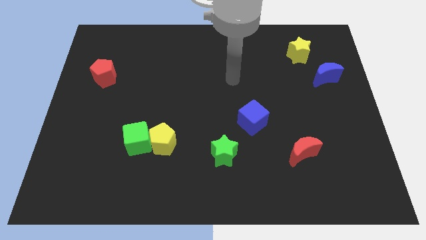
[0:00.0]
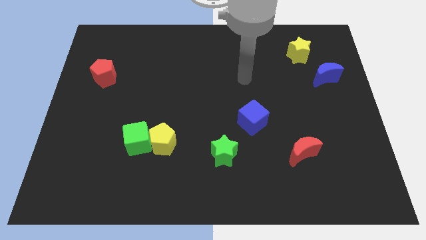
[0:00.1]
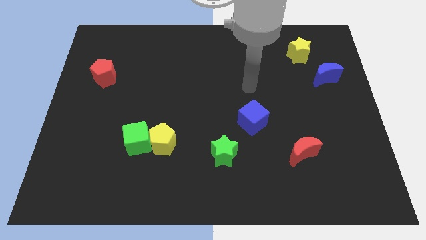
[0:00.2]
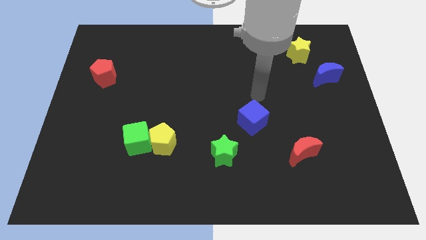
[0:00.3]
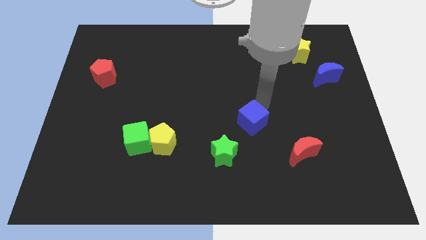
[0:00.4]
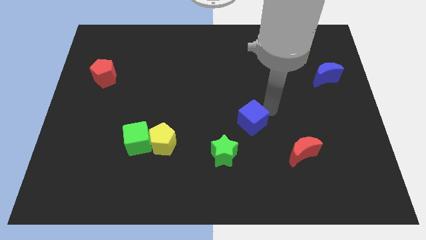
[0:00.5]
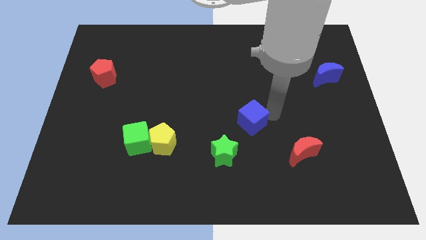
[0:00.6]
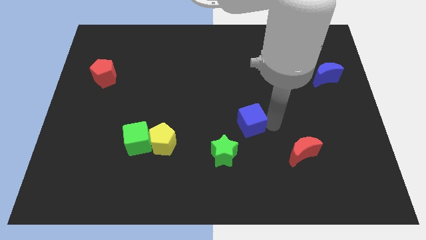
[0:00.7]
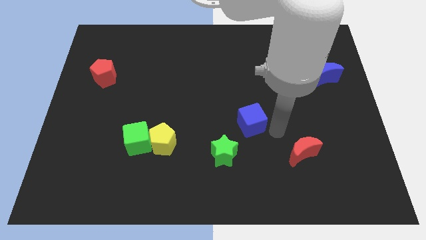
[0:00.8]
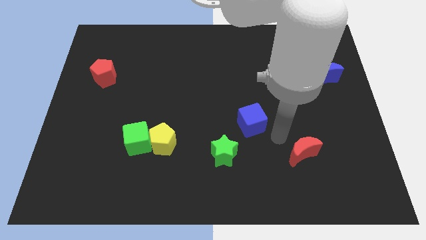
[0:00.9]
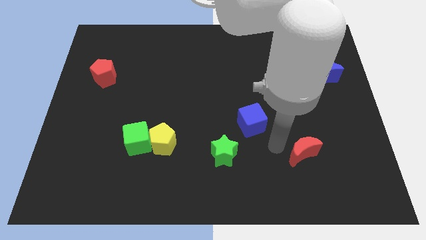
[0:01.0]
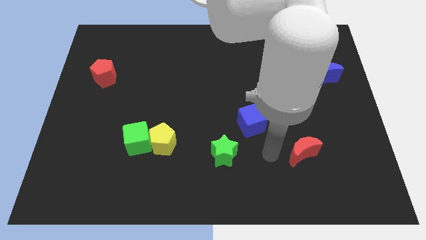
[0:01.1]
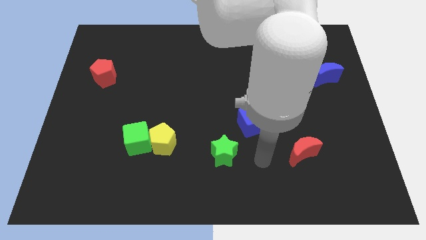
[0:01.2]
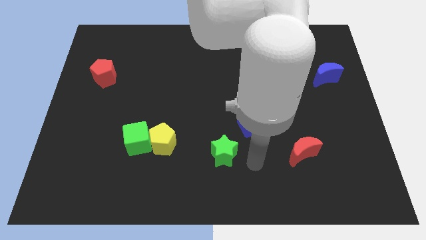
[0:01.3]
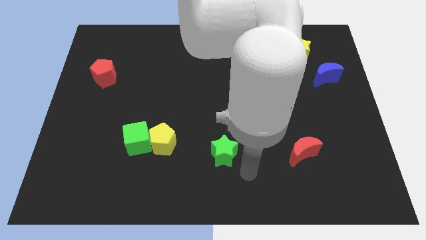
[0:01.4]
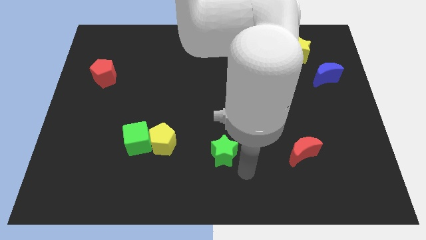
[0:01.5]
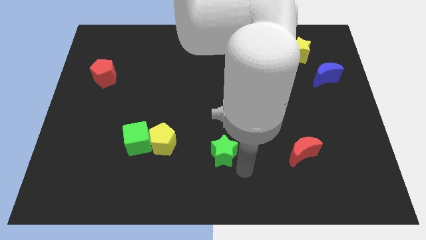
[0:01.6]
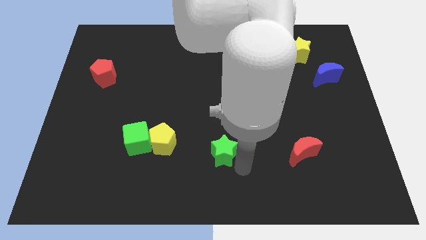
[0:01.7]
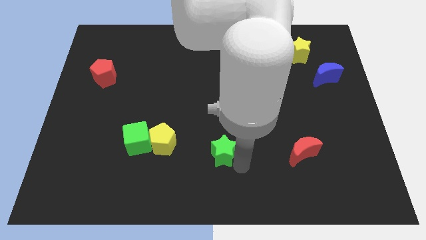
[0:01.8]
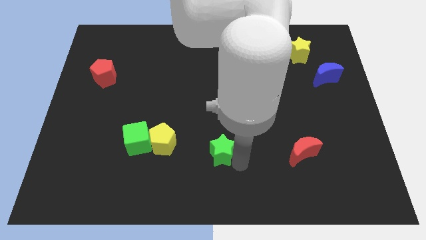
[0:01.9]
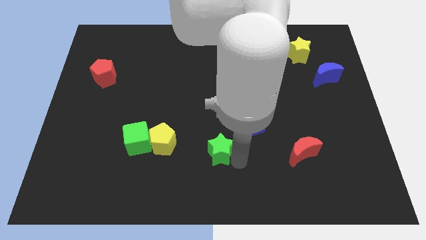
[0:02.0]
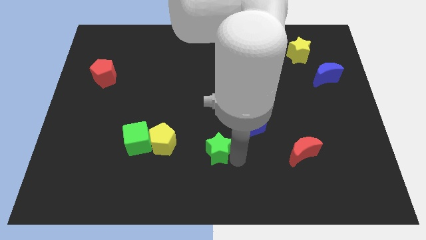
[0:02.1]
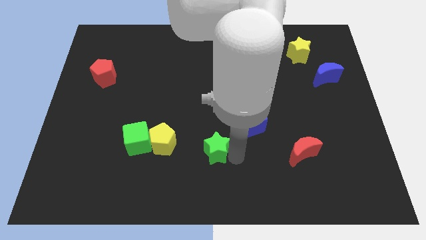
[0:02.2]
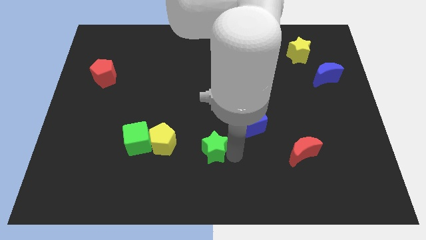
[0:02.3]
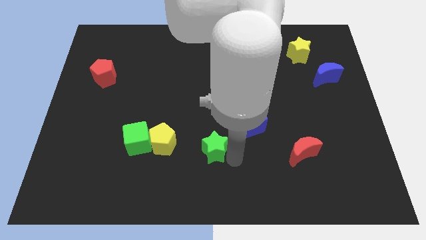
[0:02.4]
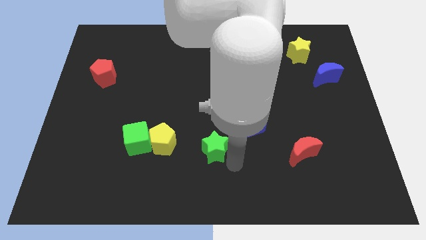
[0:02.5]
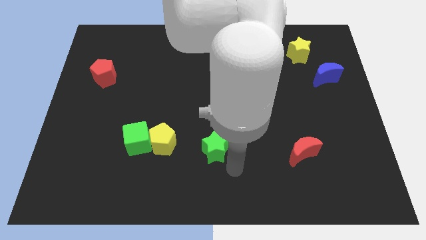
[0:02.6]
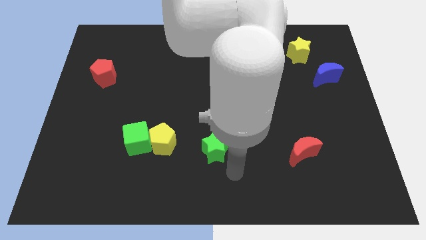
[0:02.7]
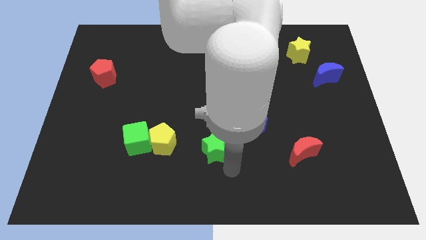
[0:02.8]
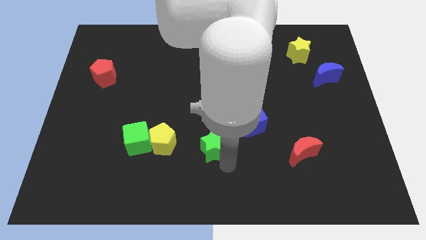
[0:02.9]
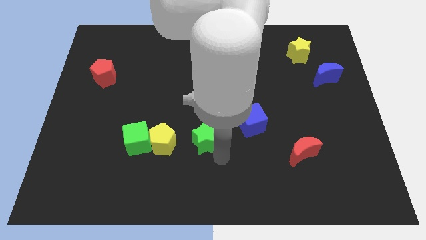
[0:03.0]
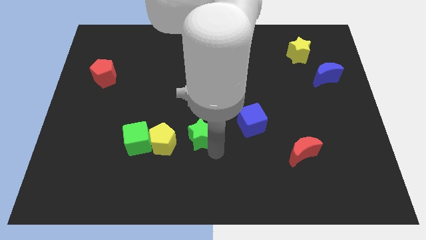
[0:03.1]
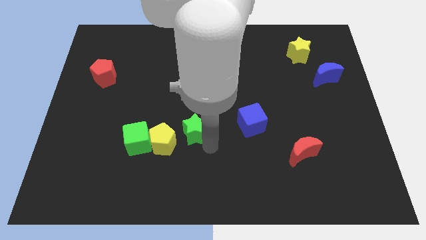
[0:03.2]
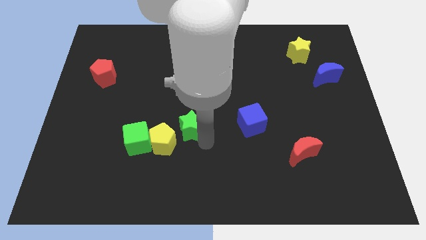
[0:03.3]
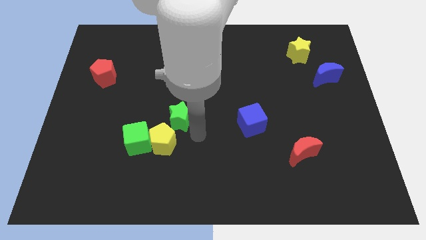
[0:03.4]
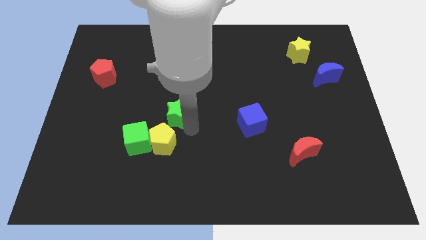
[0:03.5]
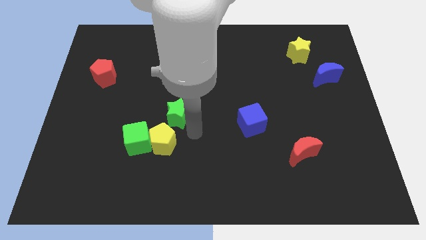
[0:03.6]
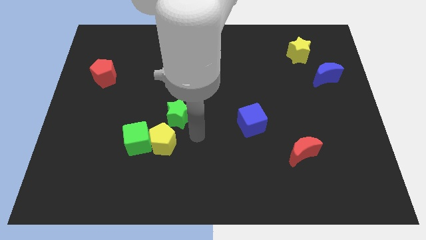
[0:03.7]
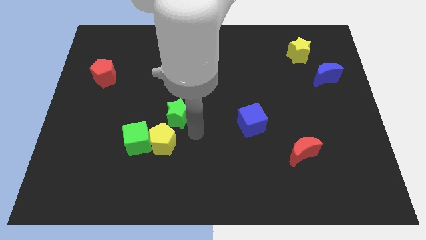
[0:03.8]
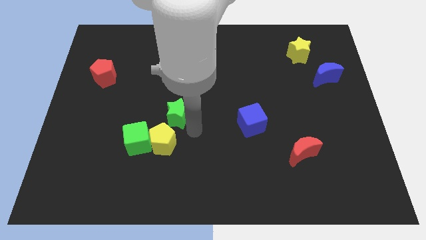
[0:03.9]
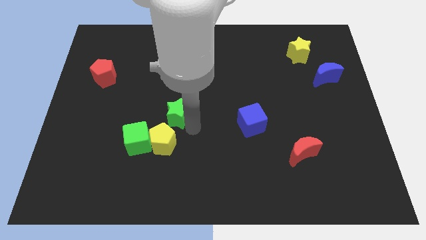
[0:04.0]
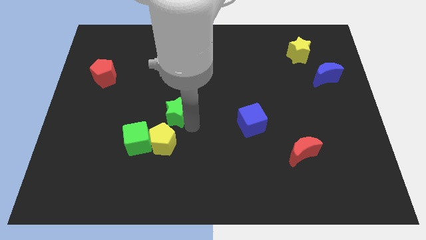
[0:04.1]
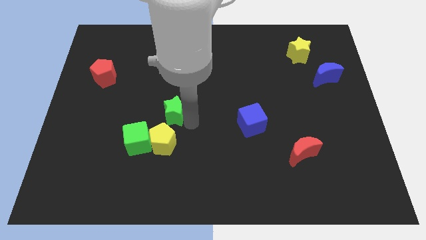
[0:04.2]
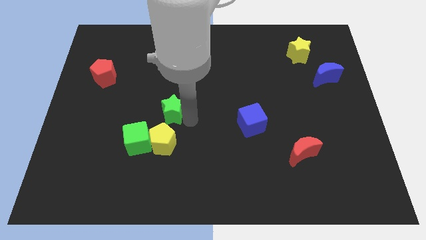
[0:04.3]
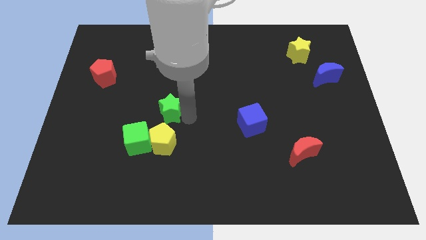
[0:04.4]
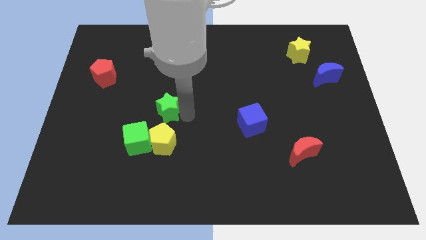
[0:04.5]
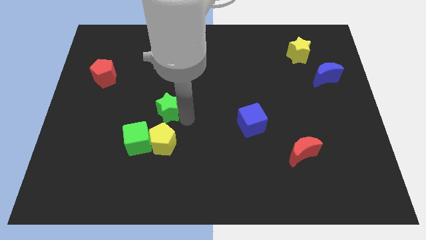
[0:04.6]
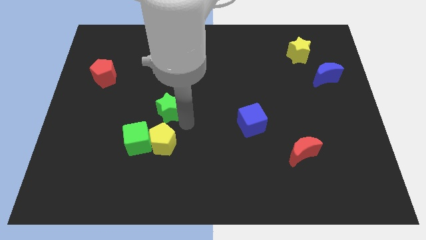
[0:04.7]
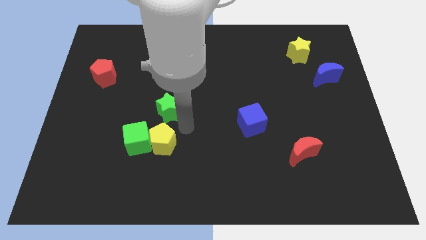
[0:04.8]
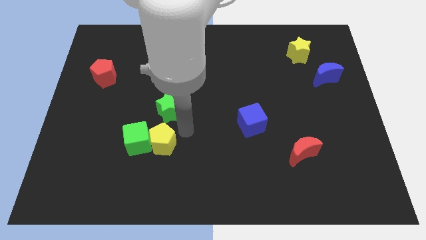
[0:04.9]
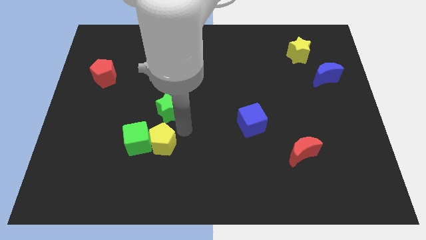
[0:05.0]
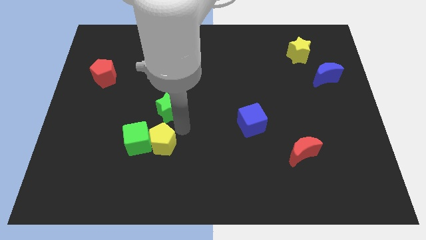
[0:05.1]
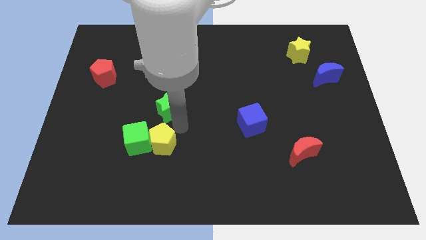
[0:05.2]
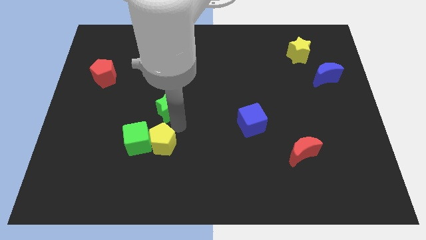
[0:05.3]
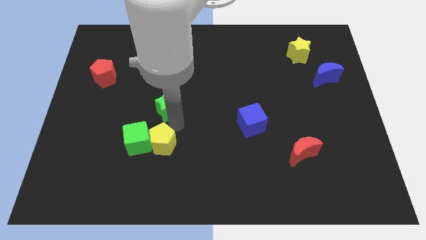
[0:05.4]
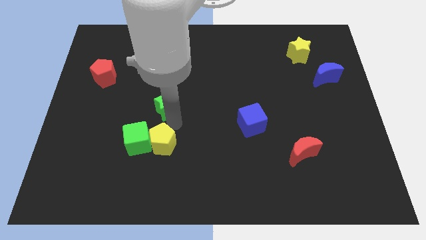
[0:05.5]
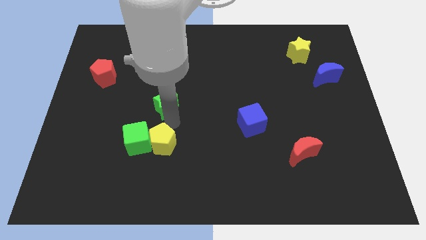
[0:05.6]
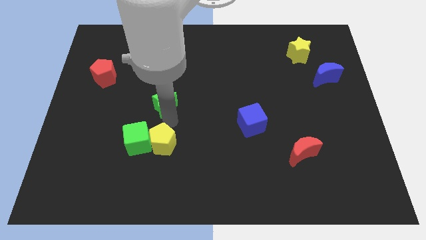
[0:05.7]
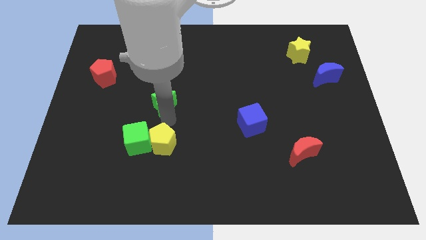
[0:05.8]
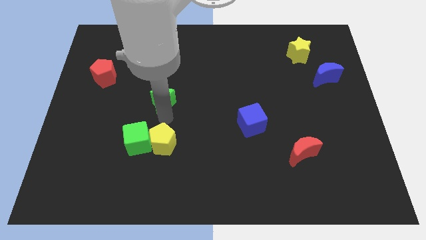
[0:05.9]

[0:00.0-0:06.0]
push the green star diagonally up and left

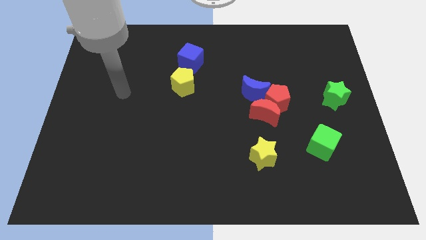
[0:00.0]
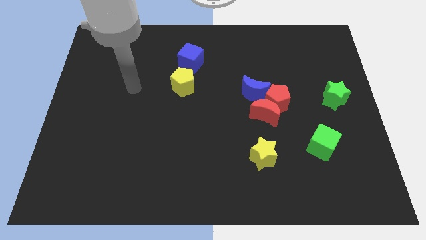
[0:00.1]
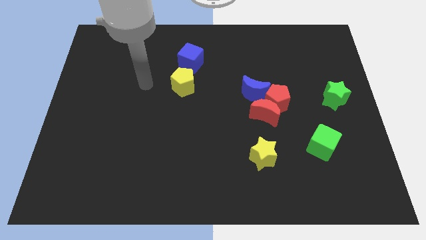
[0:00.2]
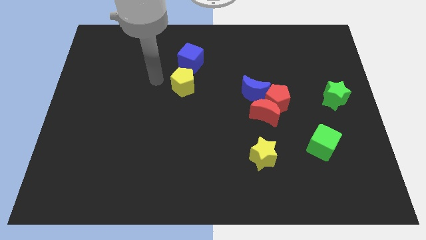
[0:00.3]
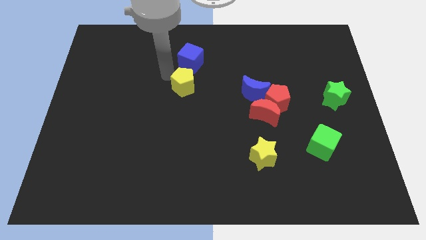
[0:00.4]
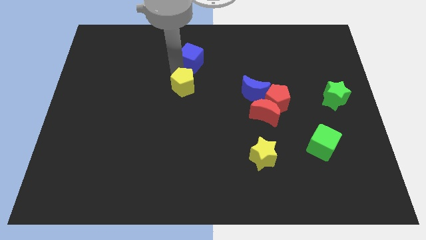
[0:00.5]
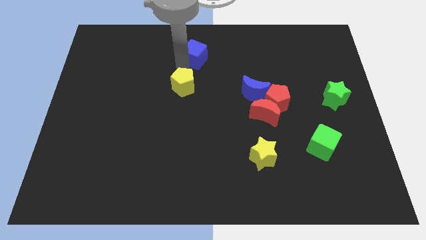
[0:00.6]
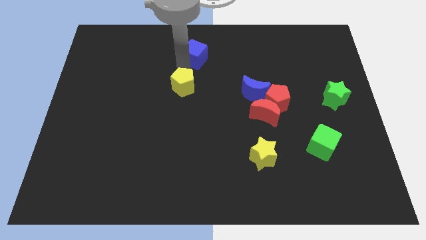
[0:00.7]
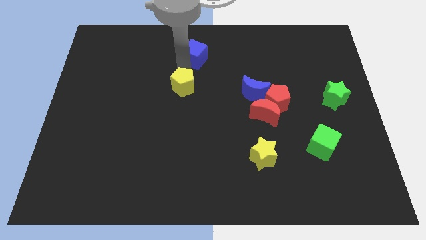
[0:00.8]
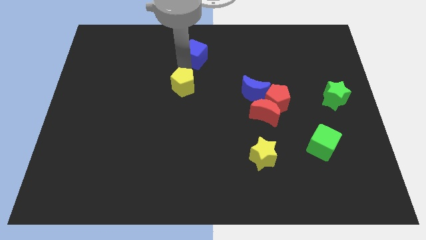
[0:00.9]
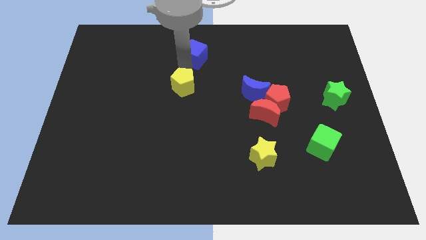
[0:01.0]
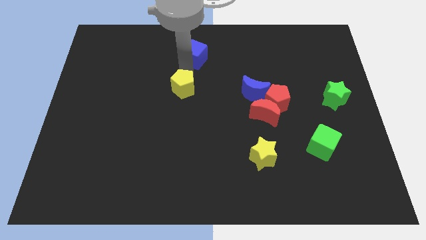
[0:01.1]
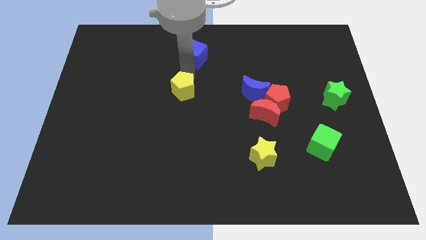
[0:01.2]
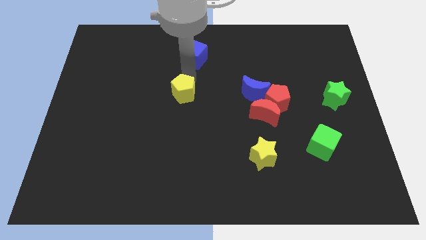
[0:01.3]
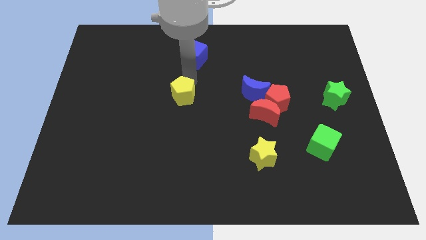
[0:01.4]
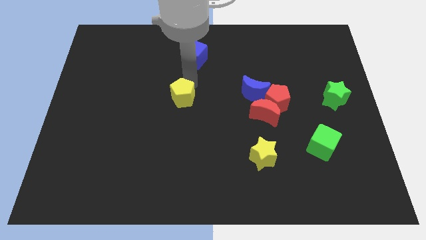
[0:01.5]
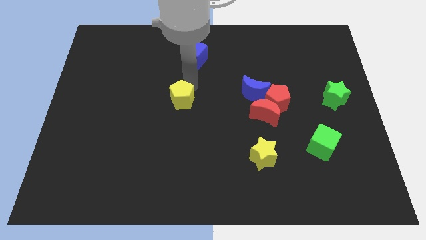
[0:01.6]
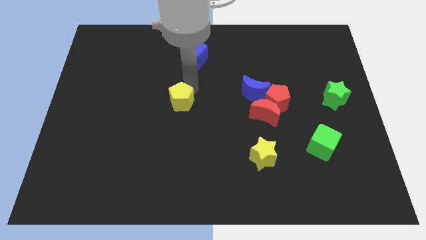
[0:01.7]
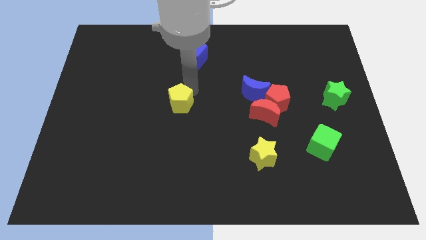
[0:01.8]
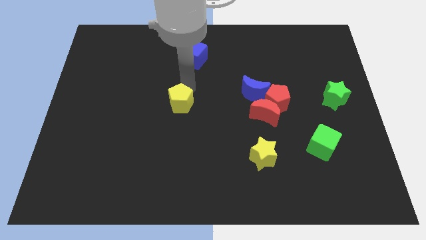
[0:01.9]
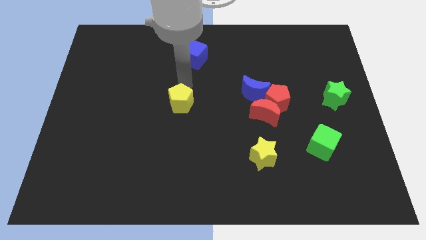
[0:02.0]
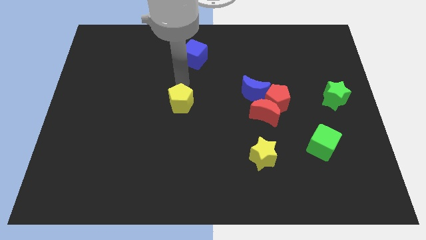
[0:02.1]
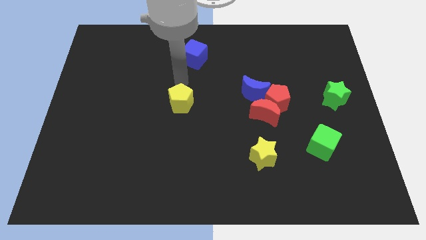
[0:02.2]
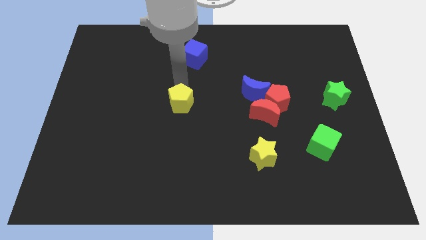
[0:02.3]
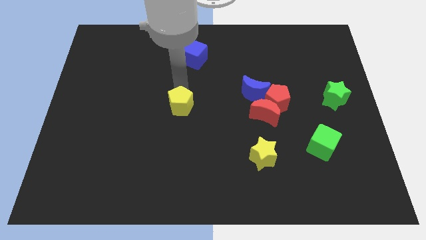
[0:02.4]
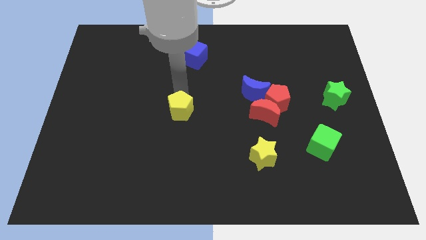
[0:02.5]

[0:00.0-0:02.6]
slightly move the yellow pentagon down
